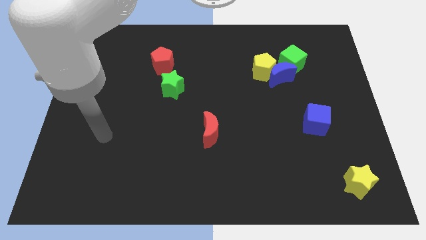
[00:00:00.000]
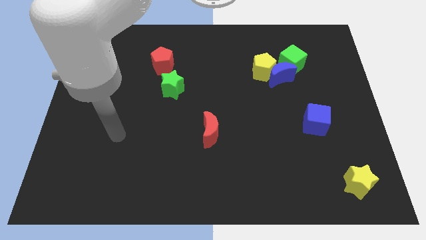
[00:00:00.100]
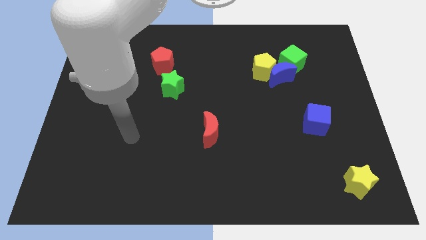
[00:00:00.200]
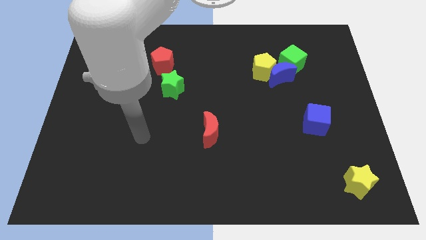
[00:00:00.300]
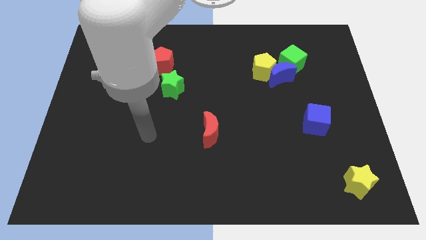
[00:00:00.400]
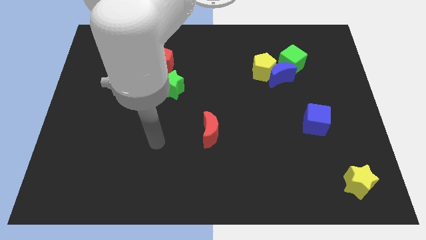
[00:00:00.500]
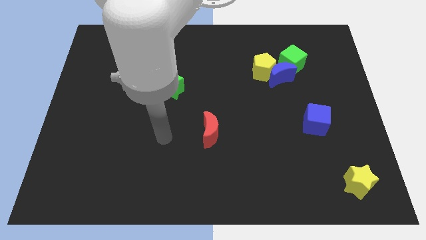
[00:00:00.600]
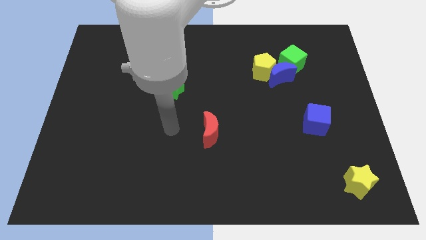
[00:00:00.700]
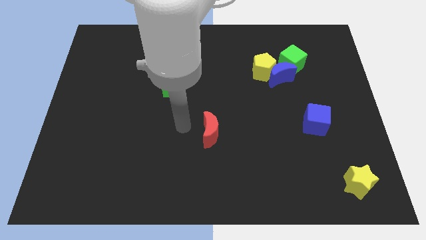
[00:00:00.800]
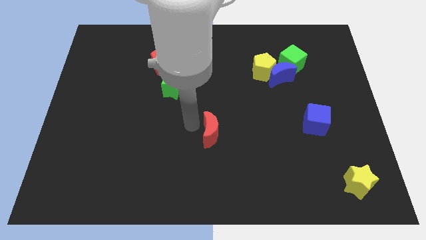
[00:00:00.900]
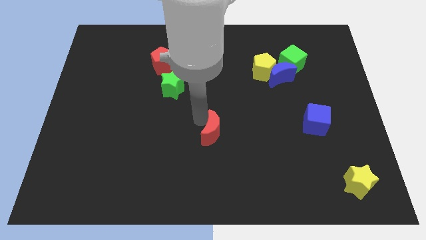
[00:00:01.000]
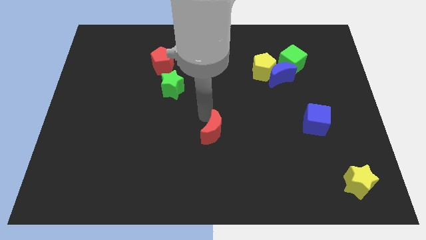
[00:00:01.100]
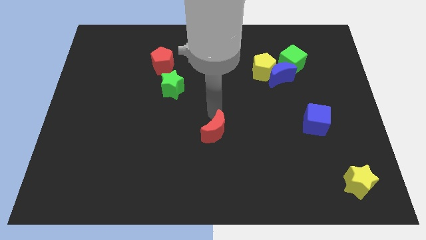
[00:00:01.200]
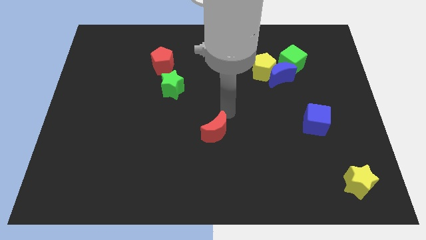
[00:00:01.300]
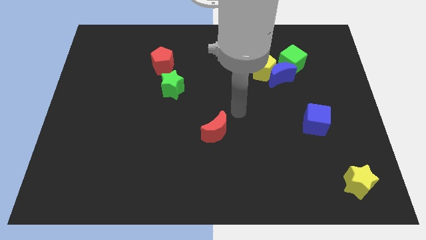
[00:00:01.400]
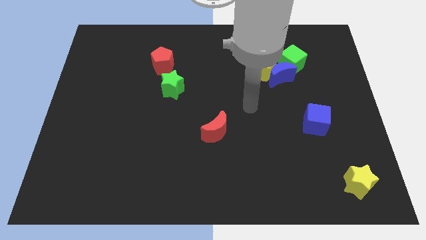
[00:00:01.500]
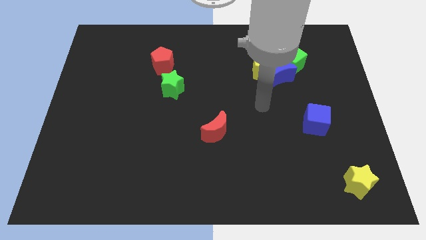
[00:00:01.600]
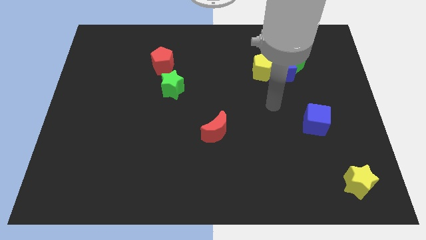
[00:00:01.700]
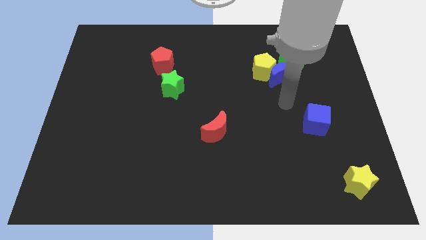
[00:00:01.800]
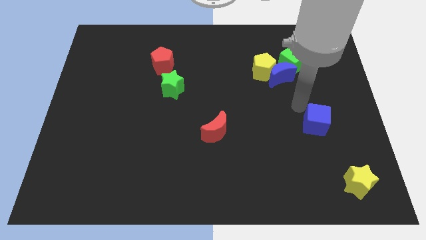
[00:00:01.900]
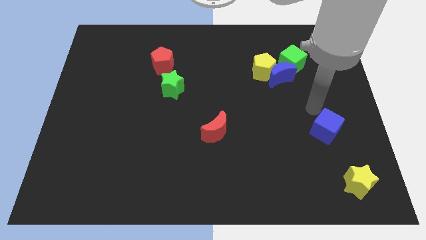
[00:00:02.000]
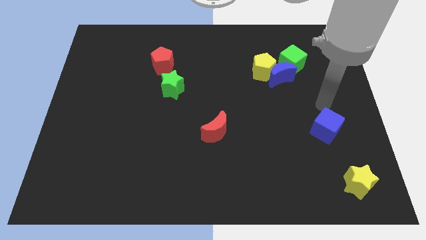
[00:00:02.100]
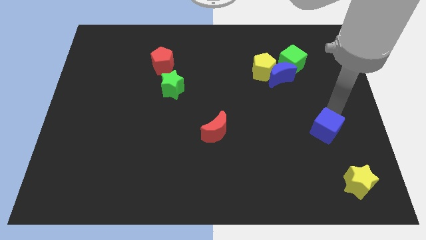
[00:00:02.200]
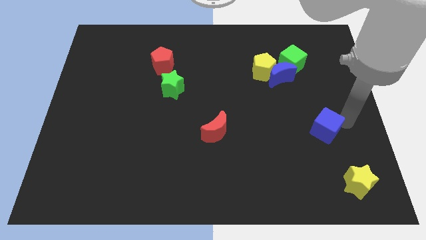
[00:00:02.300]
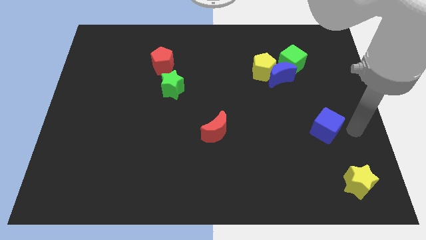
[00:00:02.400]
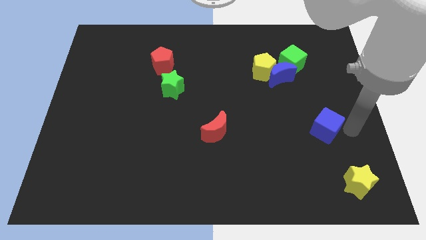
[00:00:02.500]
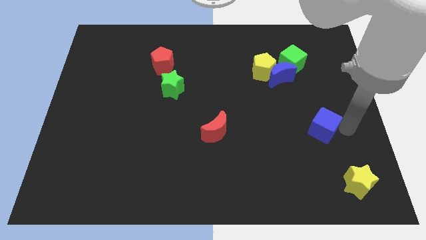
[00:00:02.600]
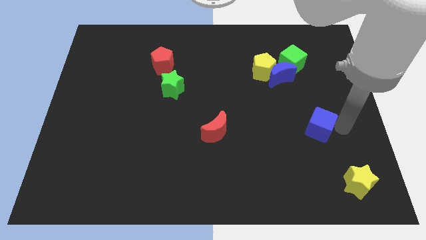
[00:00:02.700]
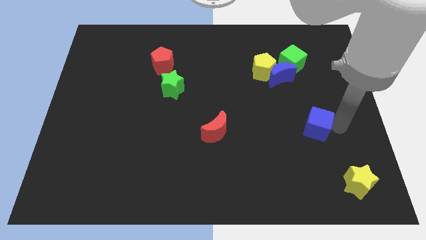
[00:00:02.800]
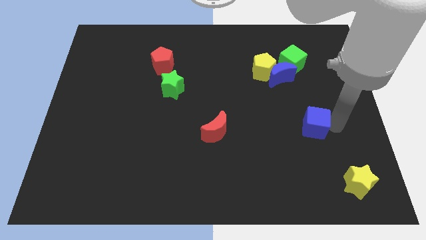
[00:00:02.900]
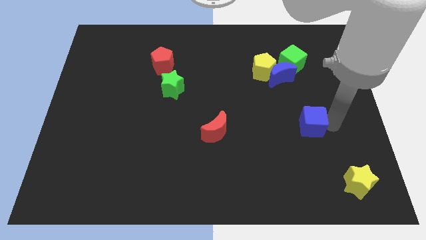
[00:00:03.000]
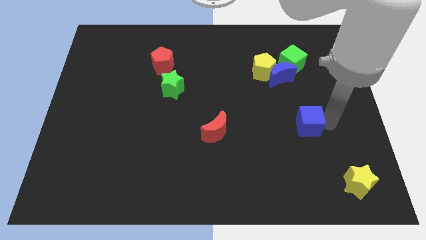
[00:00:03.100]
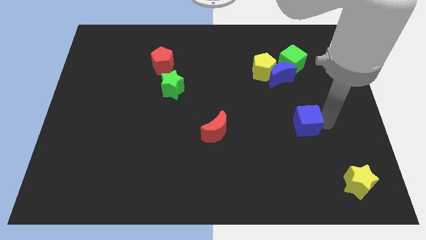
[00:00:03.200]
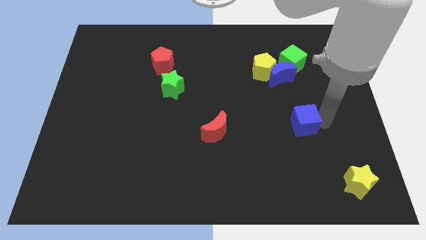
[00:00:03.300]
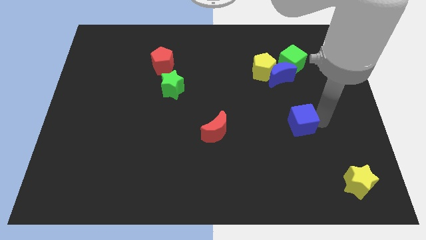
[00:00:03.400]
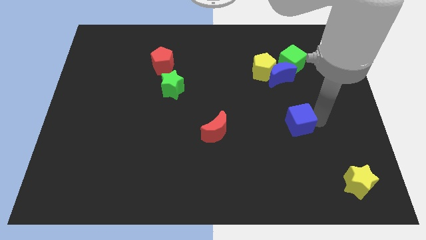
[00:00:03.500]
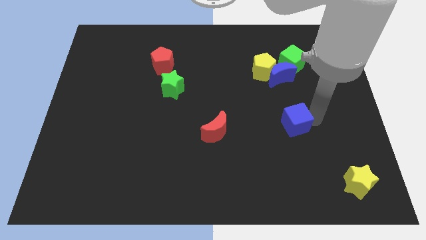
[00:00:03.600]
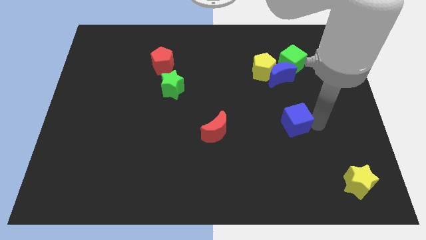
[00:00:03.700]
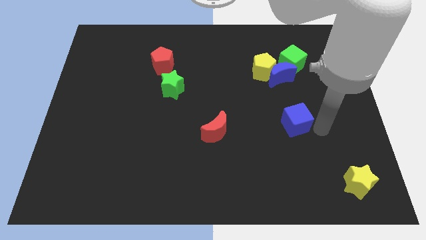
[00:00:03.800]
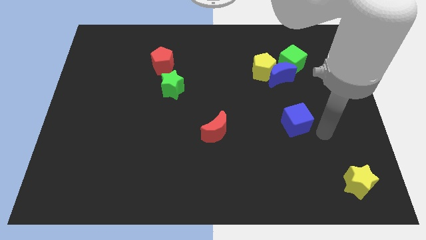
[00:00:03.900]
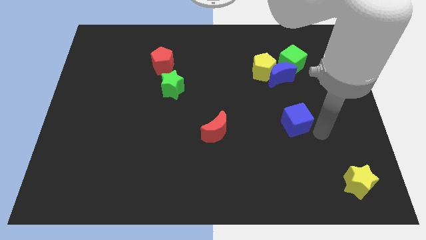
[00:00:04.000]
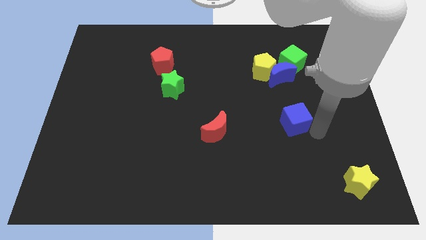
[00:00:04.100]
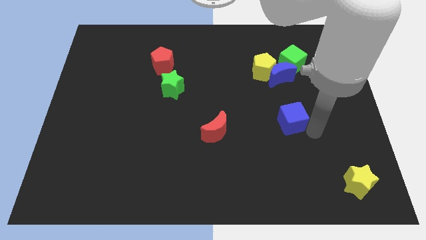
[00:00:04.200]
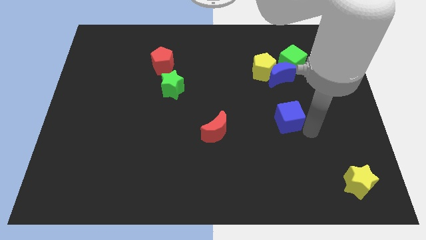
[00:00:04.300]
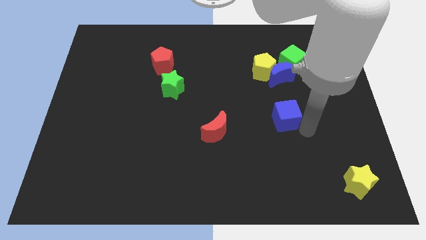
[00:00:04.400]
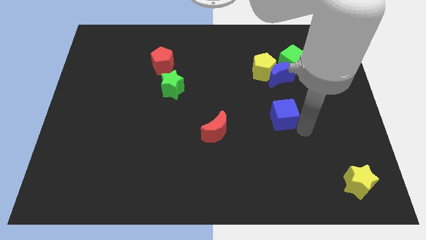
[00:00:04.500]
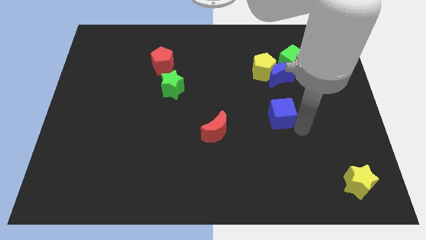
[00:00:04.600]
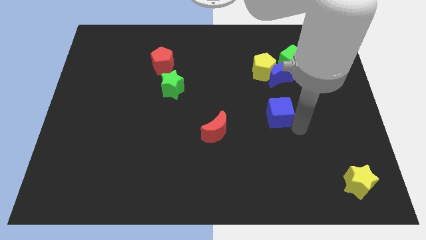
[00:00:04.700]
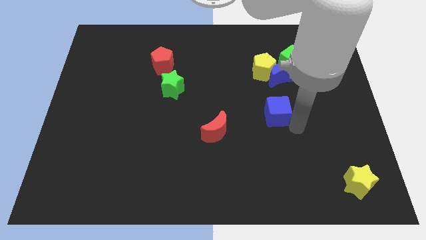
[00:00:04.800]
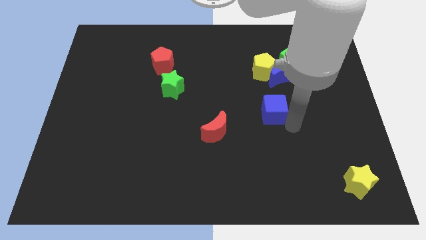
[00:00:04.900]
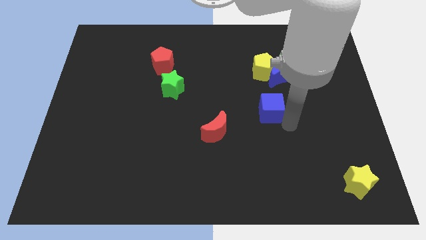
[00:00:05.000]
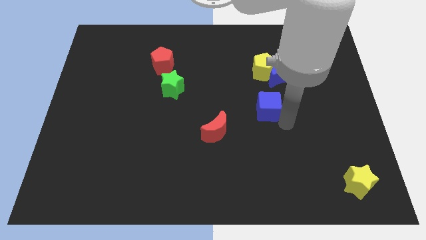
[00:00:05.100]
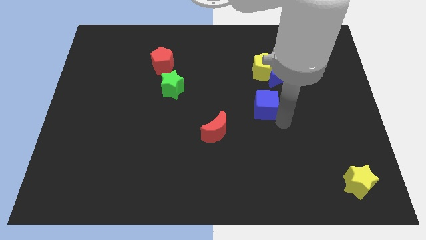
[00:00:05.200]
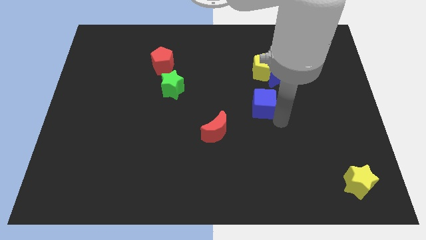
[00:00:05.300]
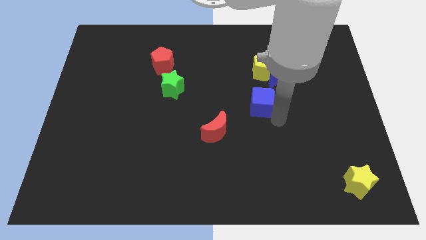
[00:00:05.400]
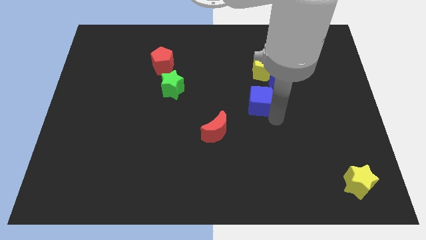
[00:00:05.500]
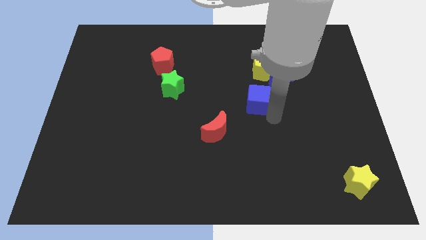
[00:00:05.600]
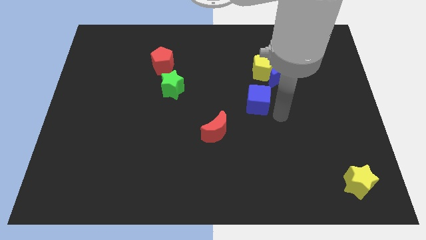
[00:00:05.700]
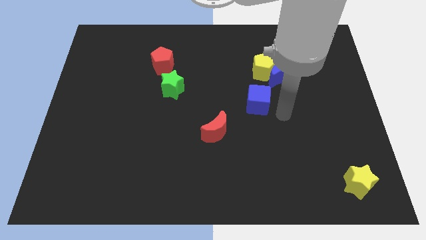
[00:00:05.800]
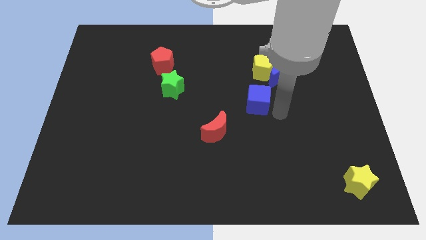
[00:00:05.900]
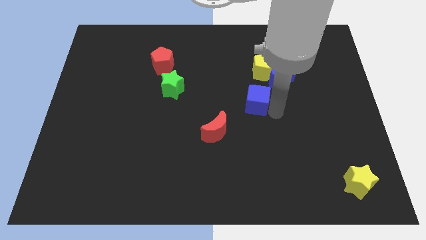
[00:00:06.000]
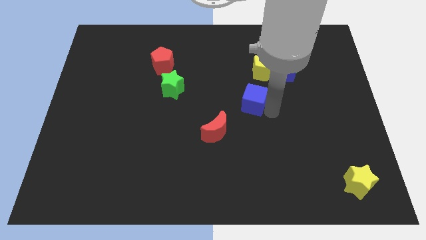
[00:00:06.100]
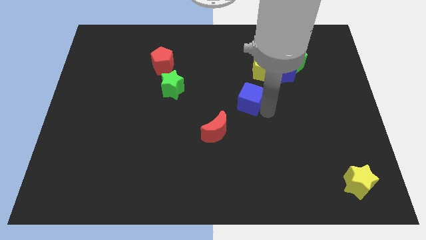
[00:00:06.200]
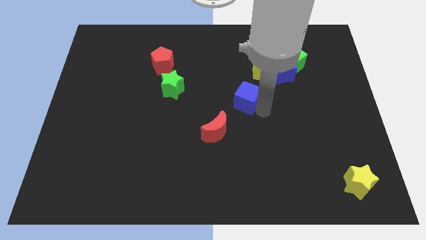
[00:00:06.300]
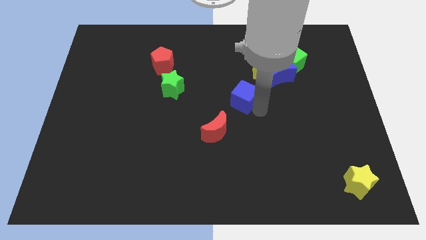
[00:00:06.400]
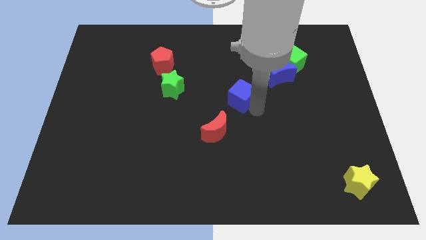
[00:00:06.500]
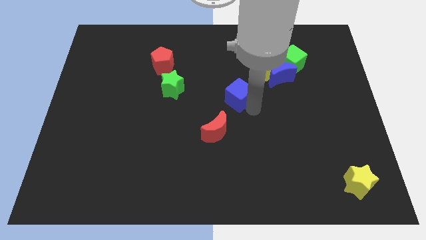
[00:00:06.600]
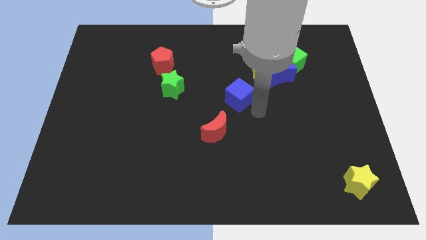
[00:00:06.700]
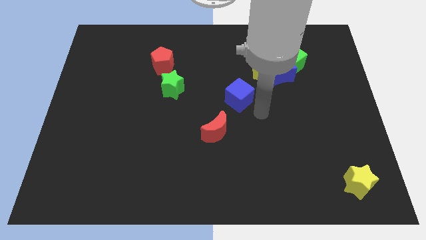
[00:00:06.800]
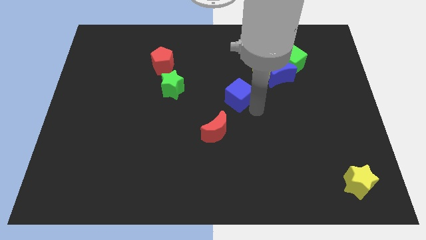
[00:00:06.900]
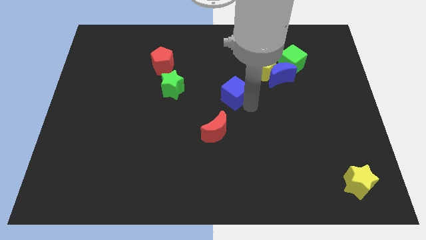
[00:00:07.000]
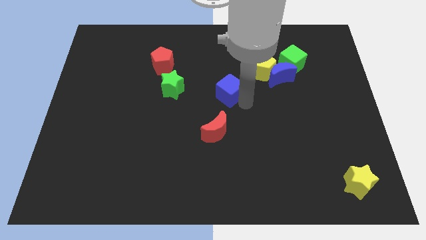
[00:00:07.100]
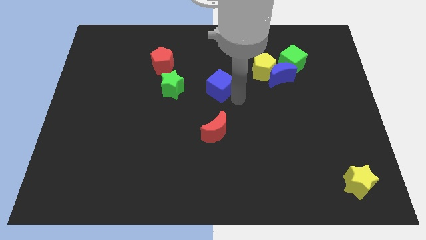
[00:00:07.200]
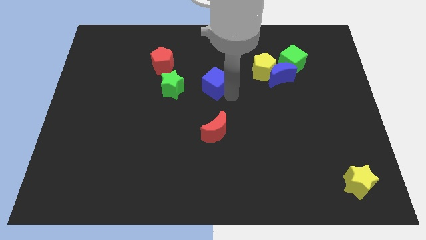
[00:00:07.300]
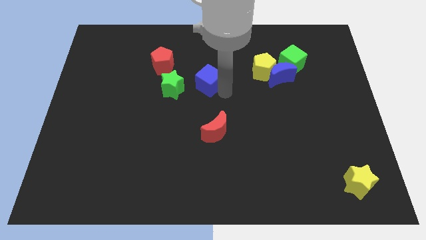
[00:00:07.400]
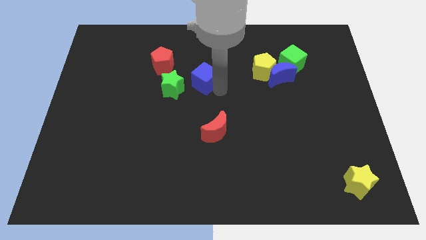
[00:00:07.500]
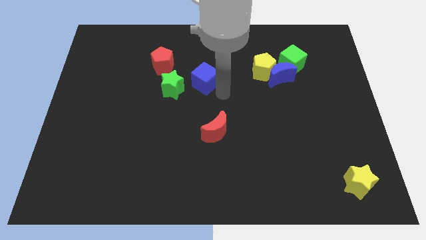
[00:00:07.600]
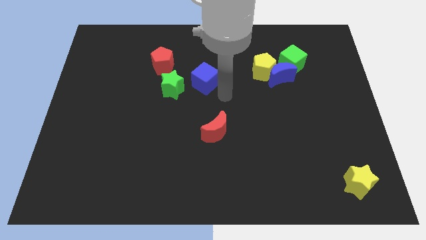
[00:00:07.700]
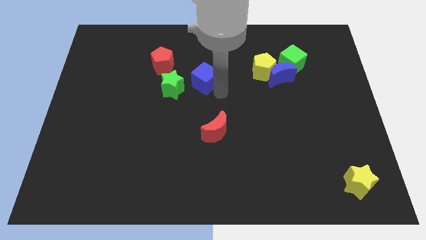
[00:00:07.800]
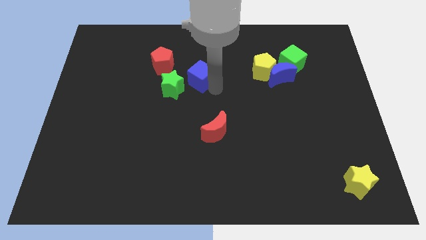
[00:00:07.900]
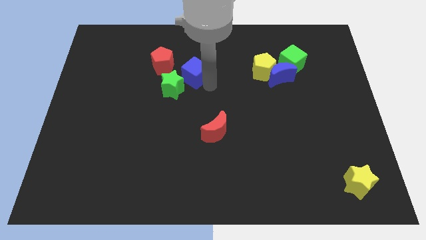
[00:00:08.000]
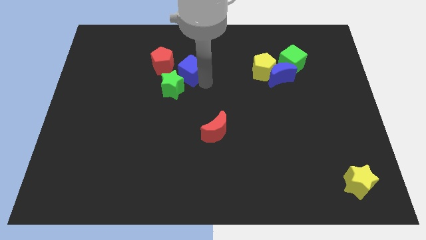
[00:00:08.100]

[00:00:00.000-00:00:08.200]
move the blue cube above the green star
